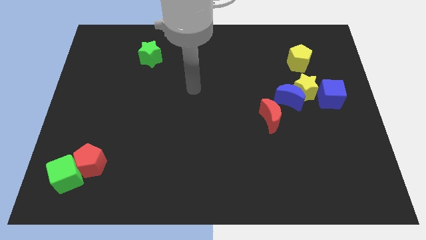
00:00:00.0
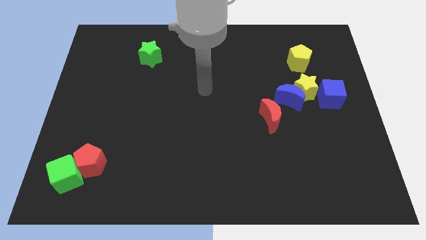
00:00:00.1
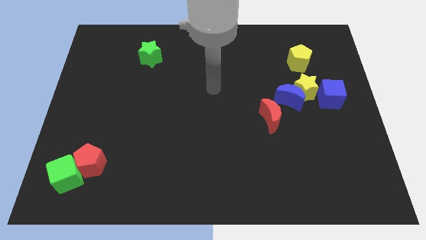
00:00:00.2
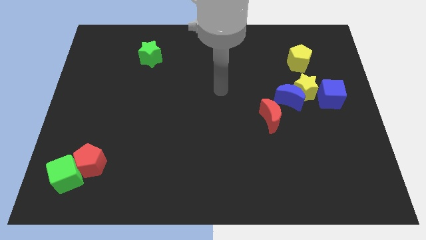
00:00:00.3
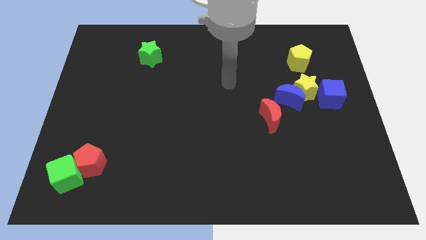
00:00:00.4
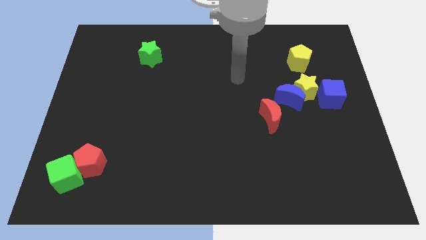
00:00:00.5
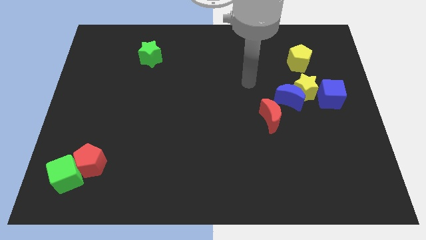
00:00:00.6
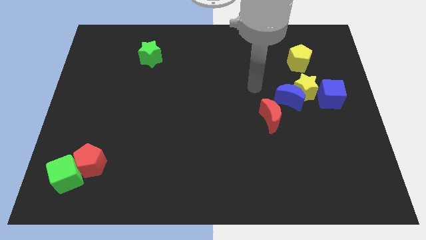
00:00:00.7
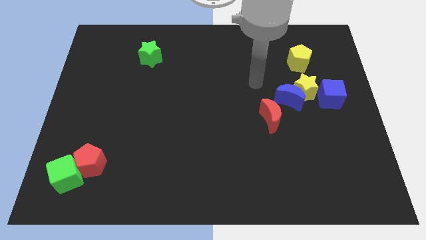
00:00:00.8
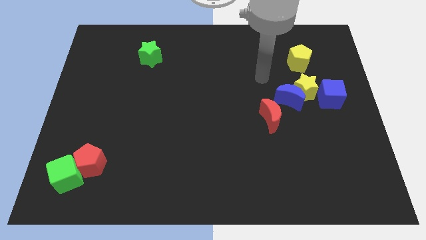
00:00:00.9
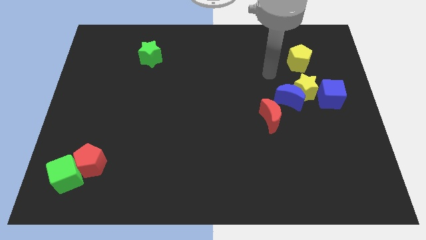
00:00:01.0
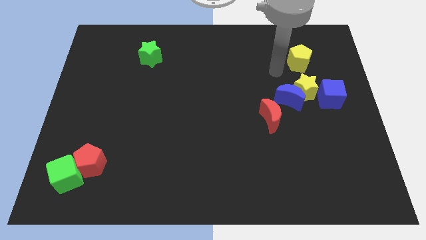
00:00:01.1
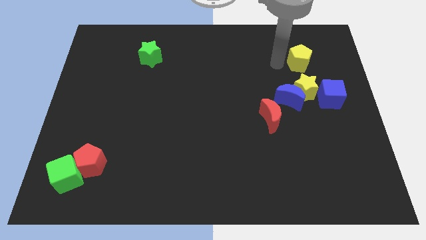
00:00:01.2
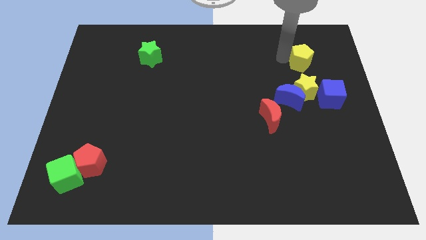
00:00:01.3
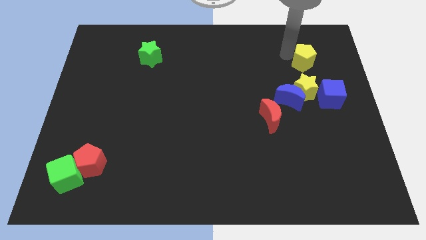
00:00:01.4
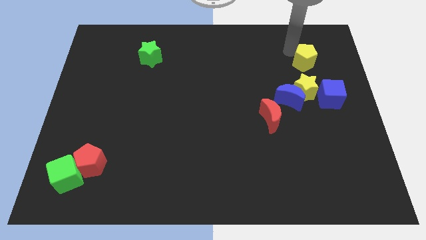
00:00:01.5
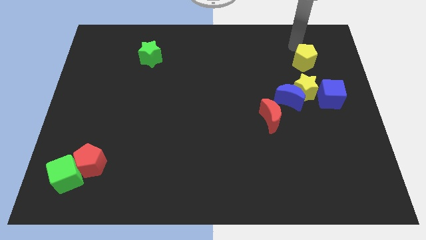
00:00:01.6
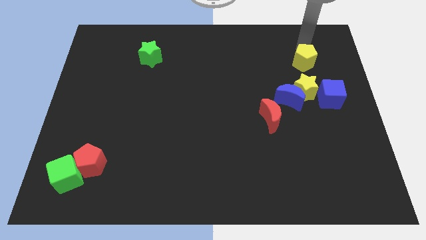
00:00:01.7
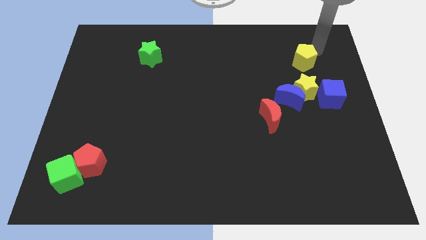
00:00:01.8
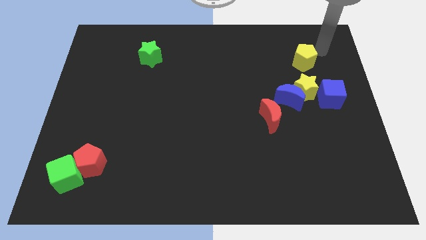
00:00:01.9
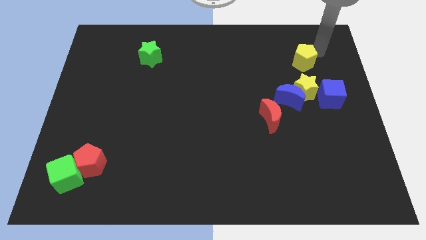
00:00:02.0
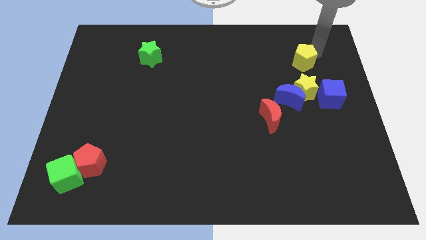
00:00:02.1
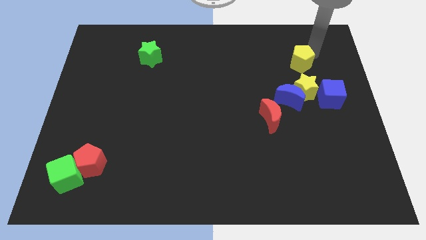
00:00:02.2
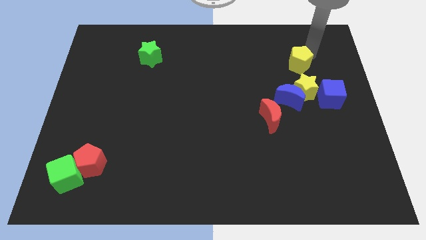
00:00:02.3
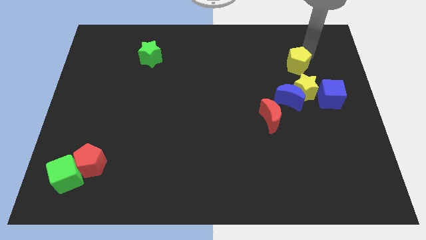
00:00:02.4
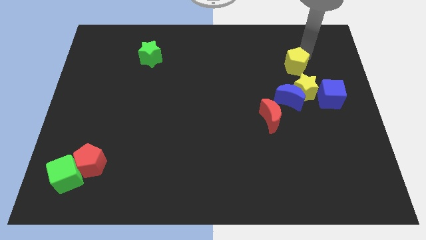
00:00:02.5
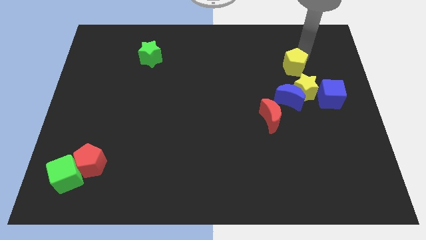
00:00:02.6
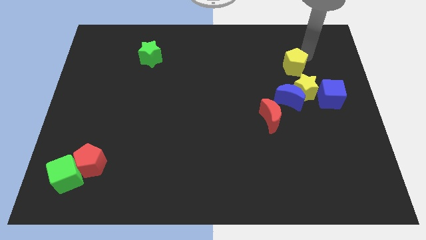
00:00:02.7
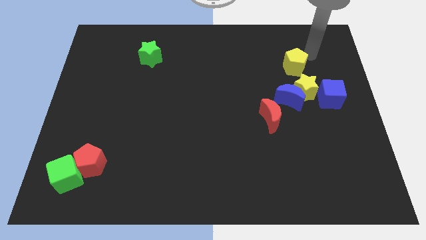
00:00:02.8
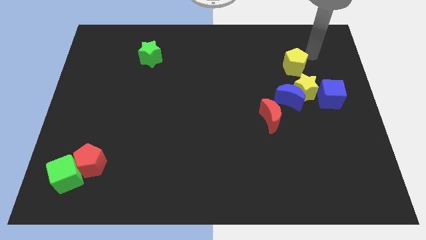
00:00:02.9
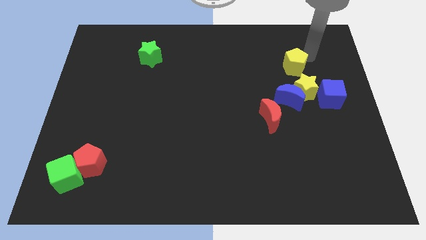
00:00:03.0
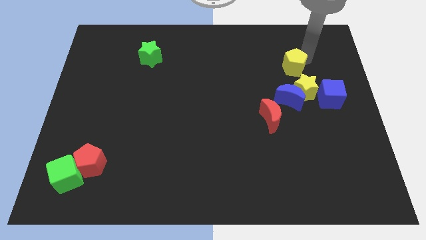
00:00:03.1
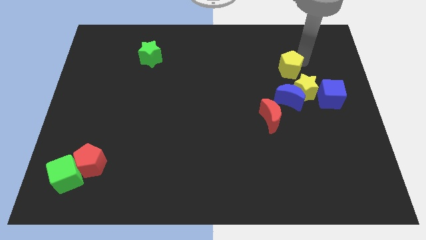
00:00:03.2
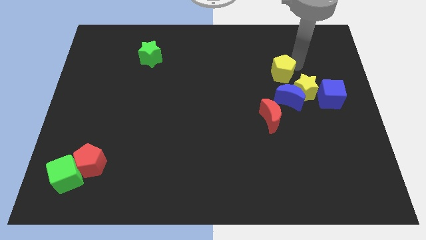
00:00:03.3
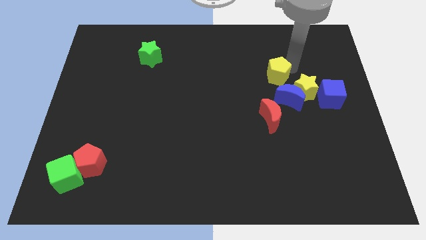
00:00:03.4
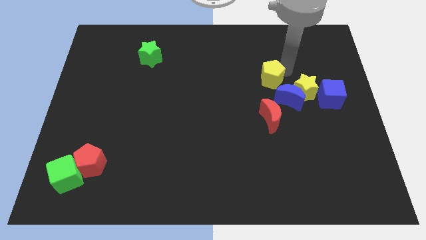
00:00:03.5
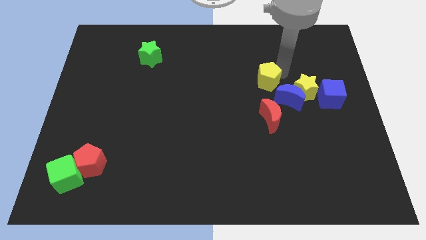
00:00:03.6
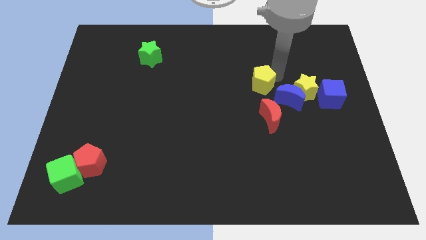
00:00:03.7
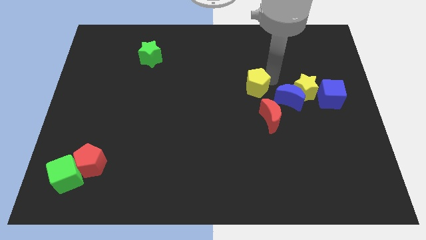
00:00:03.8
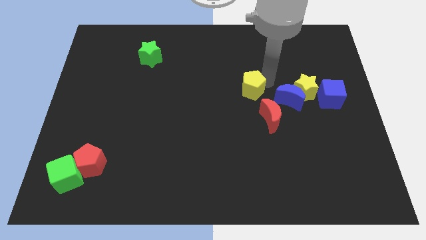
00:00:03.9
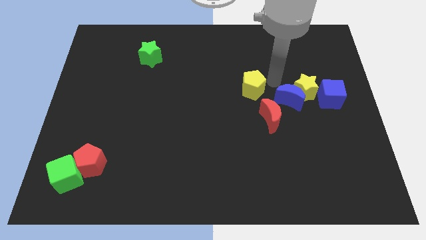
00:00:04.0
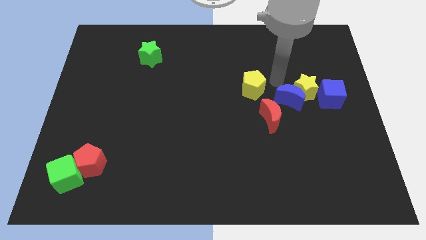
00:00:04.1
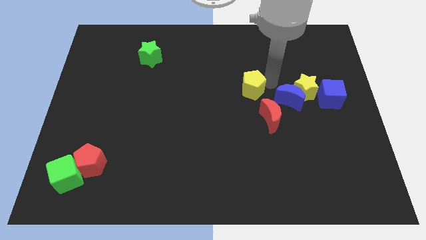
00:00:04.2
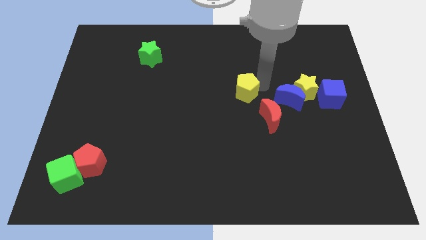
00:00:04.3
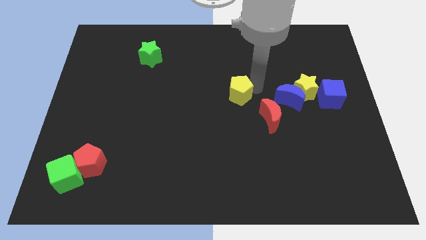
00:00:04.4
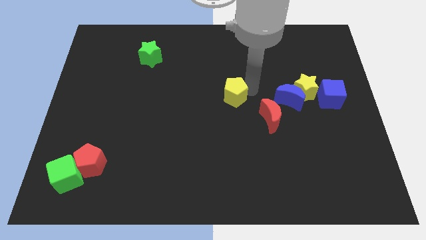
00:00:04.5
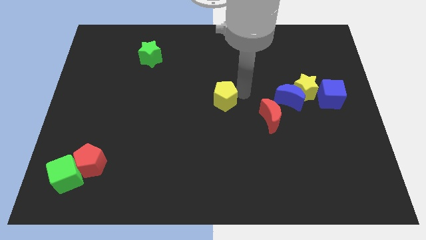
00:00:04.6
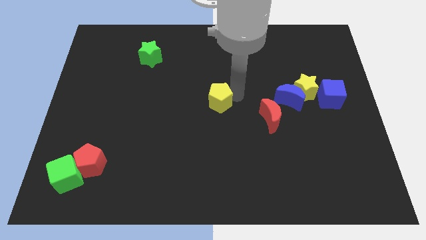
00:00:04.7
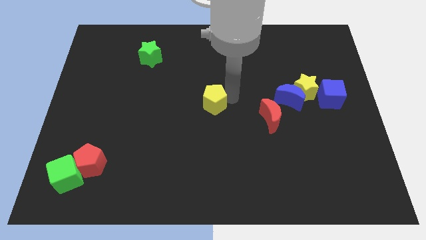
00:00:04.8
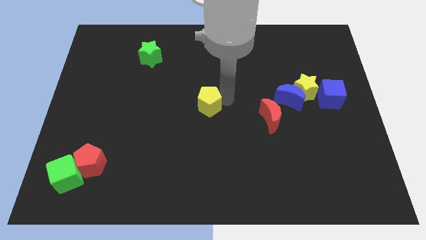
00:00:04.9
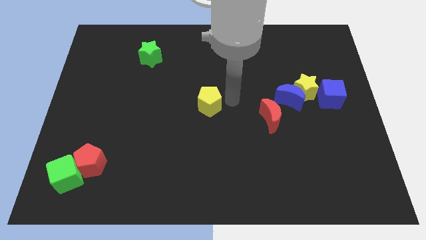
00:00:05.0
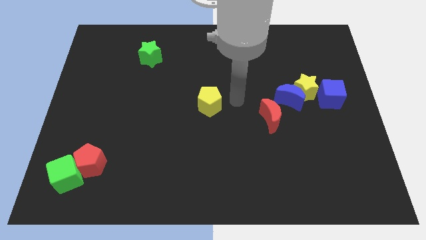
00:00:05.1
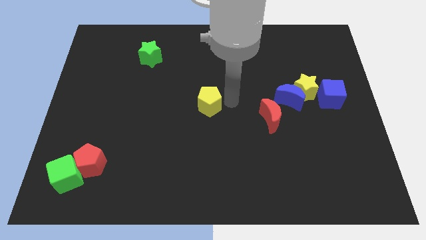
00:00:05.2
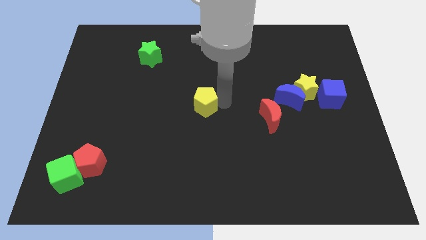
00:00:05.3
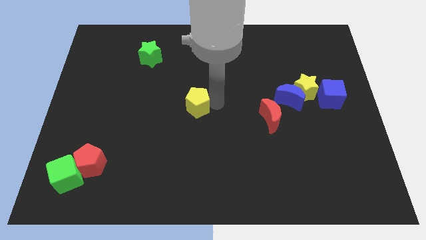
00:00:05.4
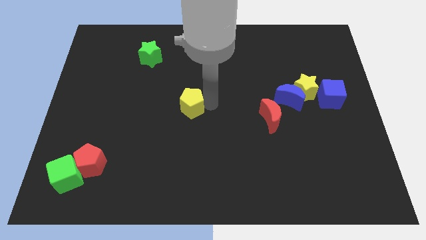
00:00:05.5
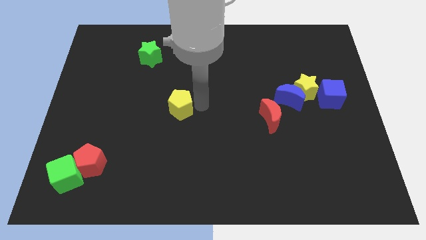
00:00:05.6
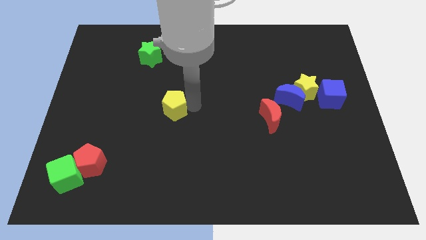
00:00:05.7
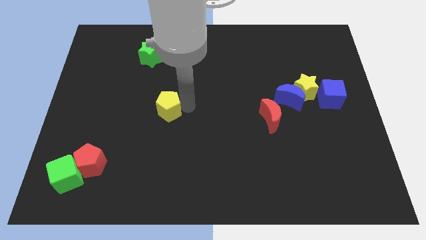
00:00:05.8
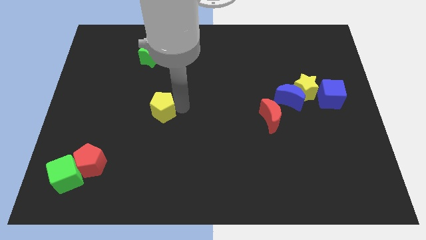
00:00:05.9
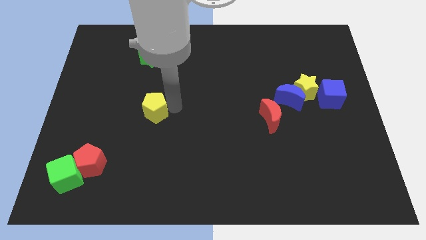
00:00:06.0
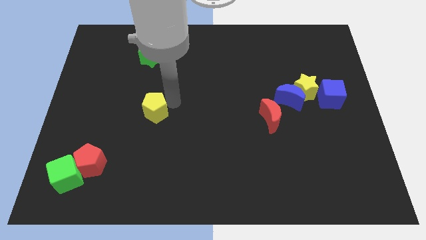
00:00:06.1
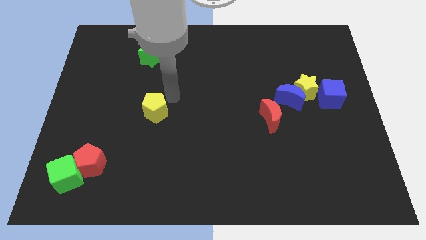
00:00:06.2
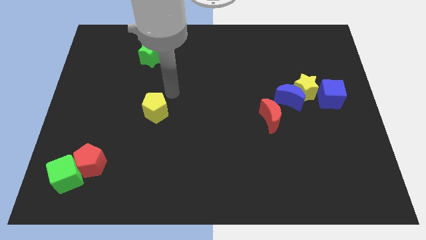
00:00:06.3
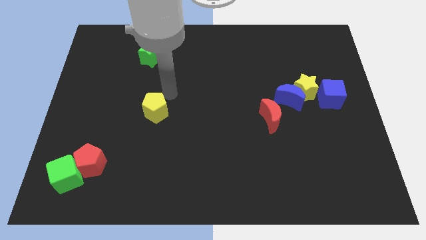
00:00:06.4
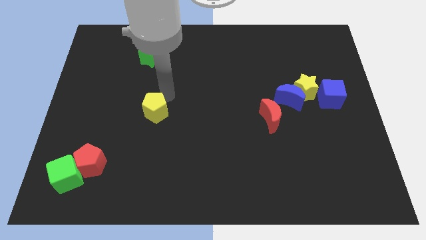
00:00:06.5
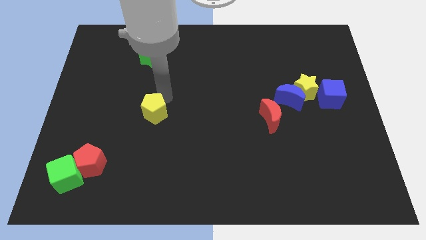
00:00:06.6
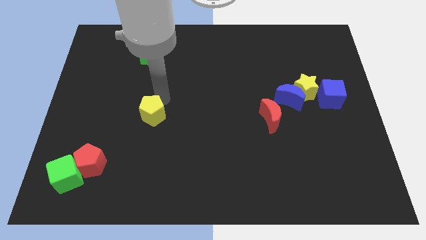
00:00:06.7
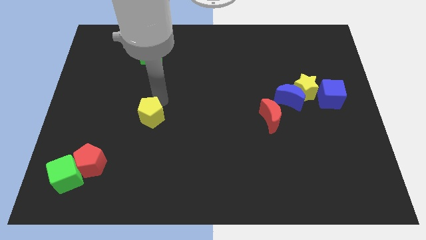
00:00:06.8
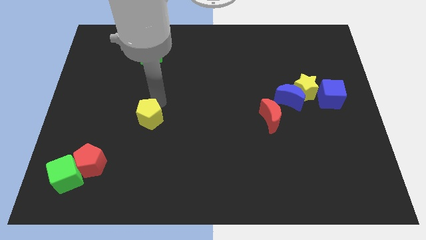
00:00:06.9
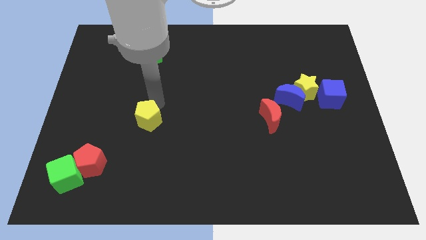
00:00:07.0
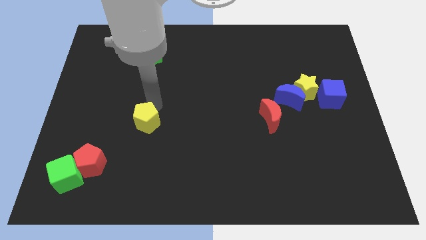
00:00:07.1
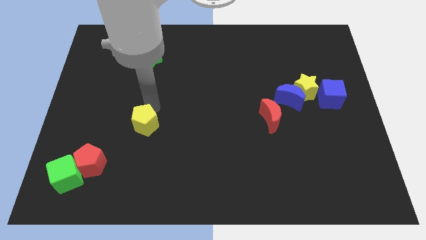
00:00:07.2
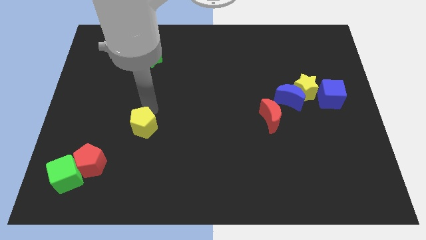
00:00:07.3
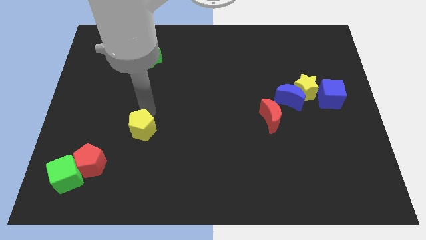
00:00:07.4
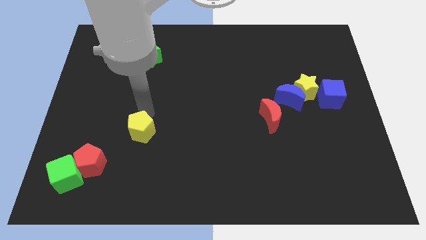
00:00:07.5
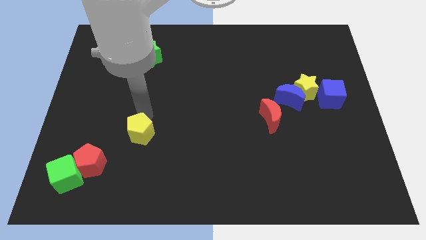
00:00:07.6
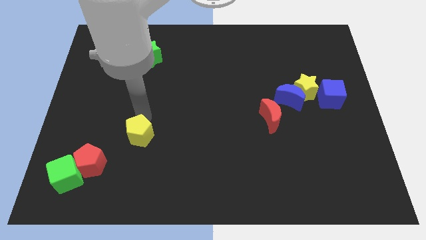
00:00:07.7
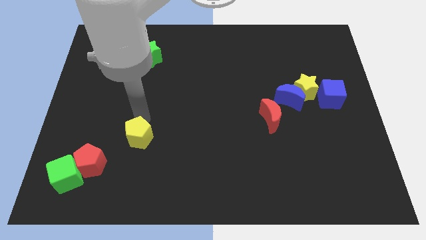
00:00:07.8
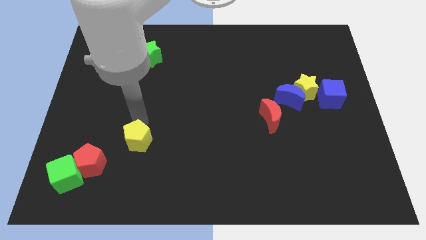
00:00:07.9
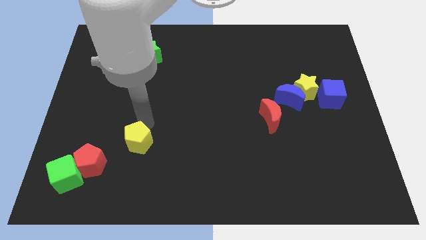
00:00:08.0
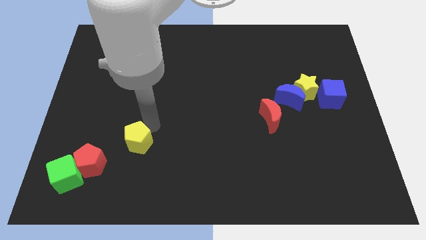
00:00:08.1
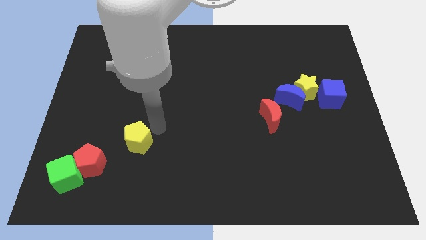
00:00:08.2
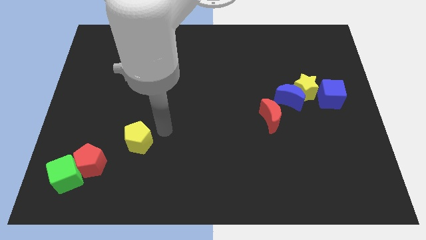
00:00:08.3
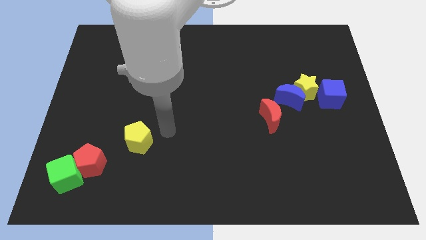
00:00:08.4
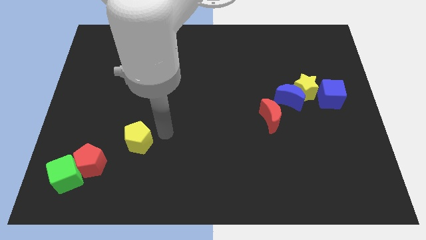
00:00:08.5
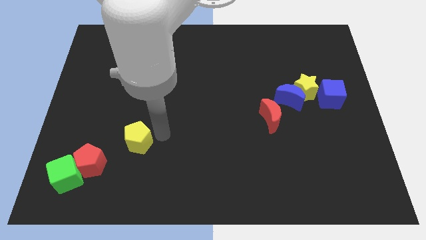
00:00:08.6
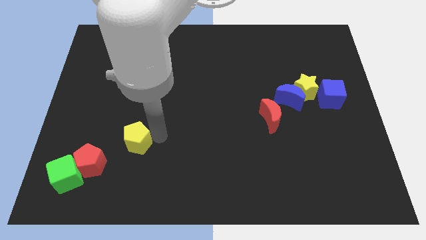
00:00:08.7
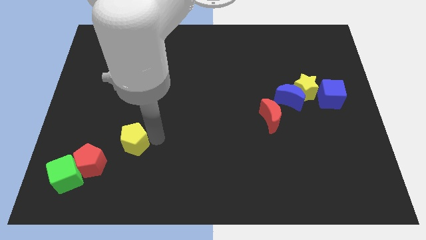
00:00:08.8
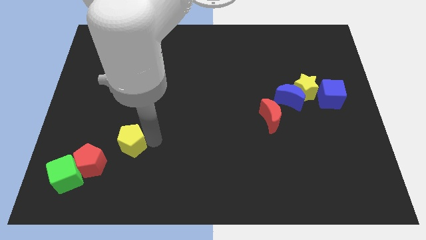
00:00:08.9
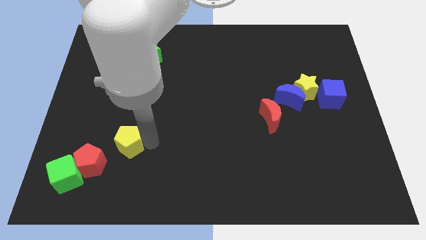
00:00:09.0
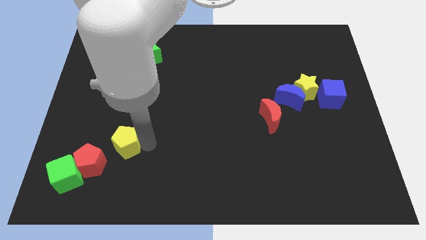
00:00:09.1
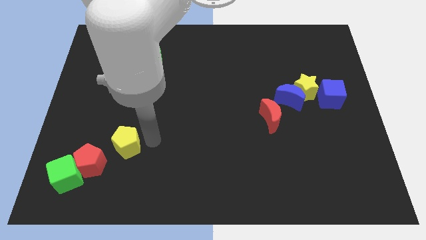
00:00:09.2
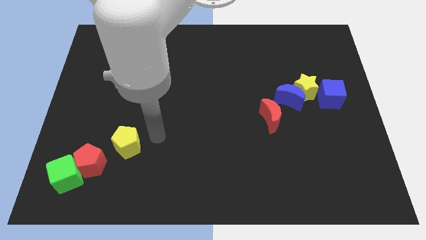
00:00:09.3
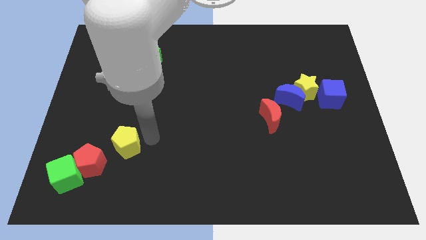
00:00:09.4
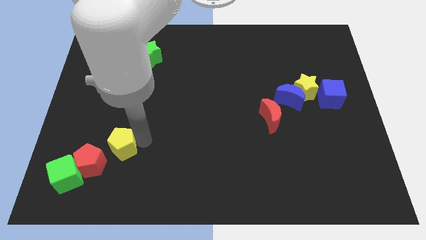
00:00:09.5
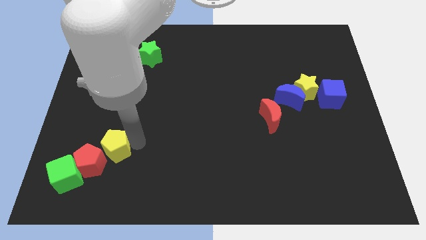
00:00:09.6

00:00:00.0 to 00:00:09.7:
slide the yellow pentagon close to the red pentagon
